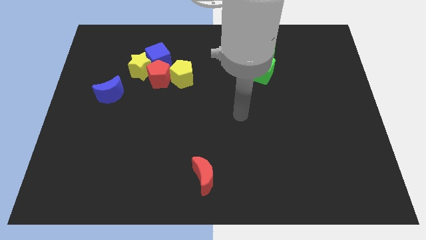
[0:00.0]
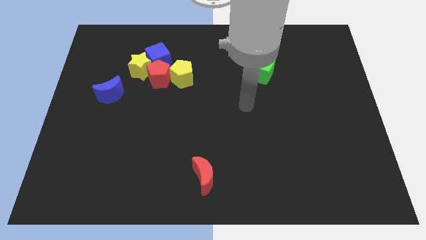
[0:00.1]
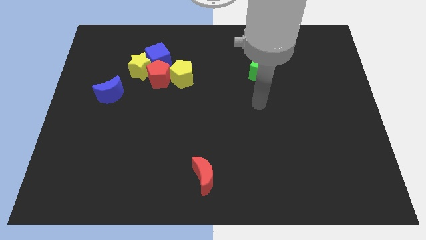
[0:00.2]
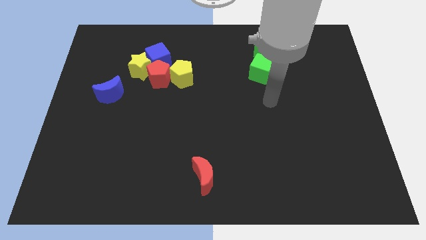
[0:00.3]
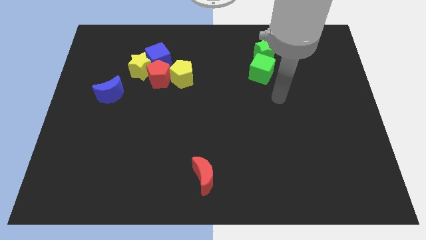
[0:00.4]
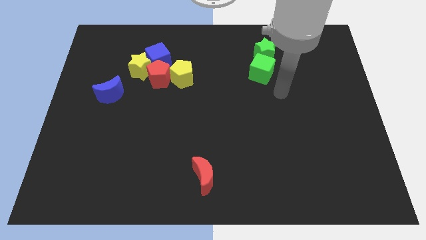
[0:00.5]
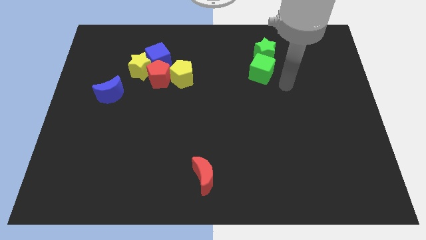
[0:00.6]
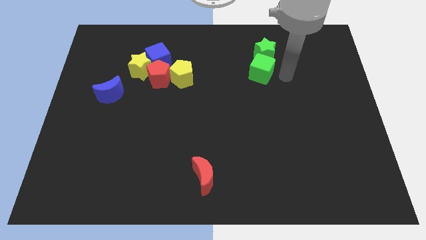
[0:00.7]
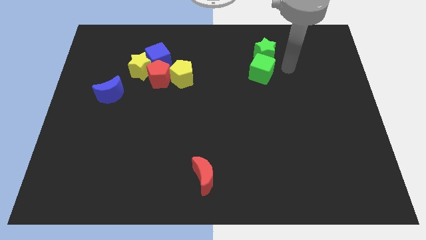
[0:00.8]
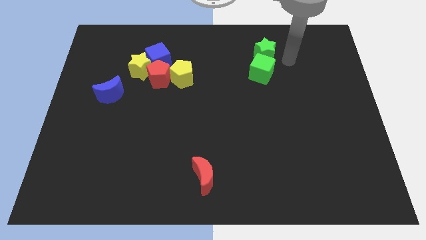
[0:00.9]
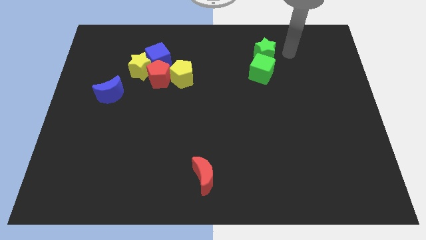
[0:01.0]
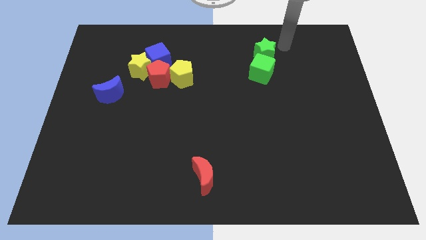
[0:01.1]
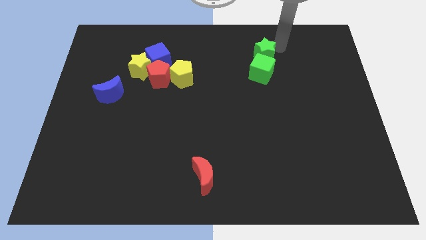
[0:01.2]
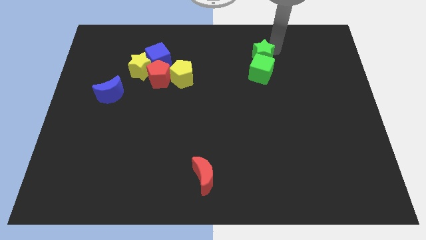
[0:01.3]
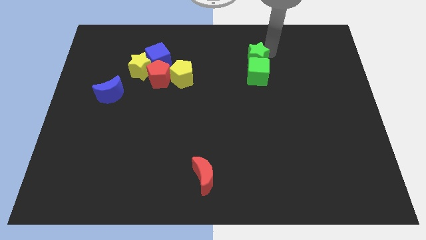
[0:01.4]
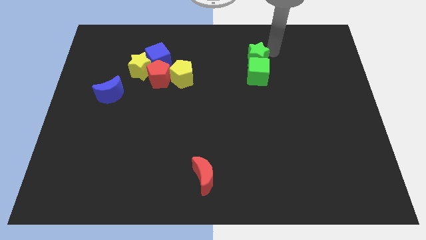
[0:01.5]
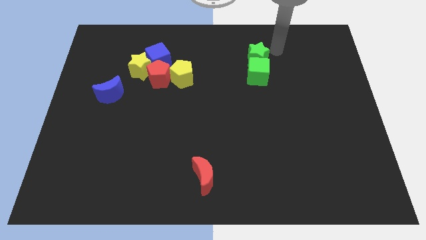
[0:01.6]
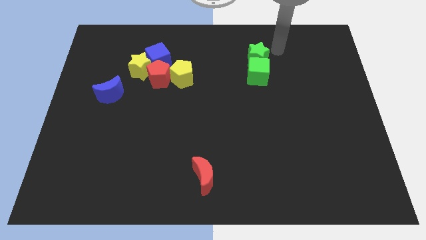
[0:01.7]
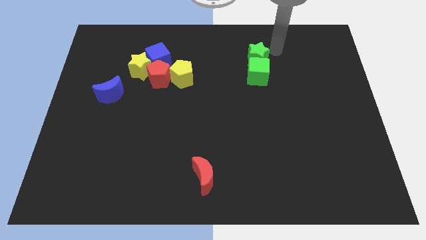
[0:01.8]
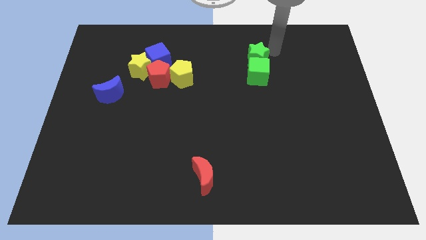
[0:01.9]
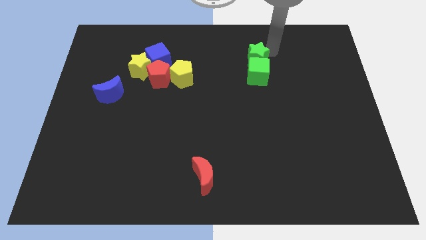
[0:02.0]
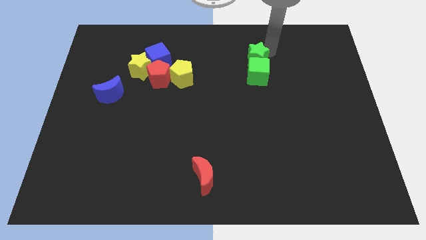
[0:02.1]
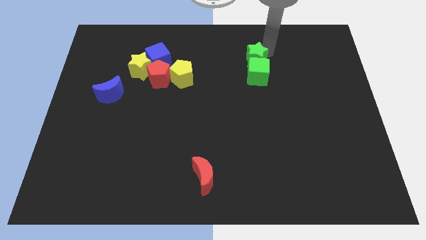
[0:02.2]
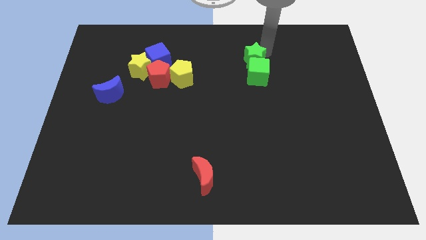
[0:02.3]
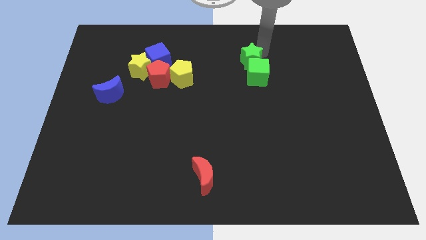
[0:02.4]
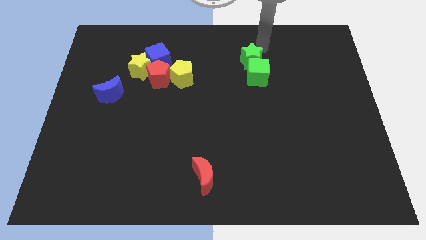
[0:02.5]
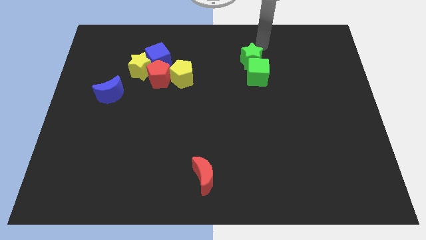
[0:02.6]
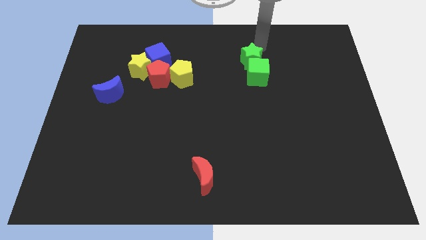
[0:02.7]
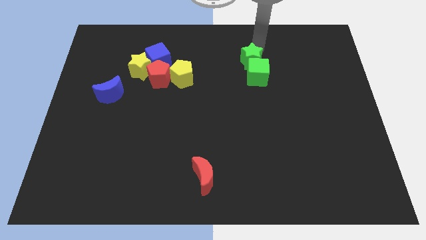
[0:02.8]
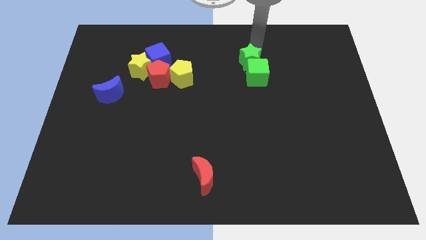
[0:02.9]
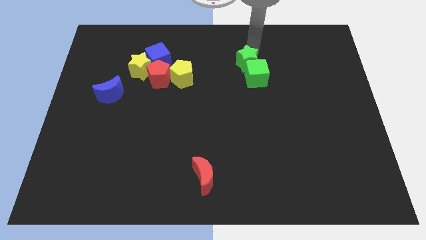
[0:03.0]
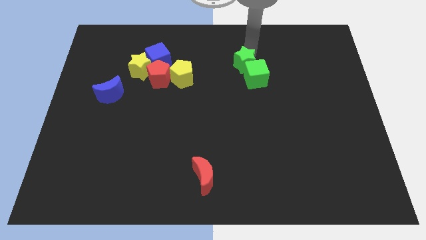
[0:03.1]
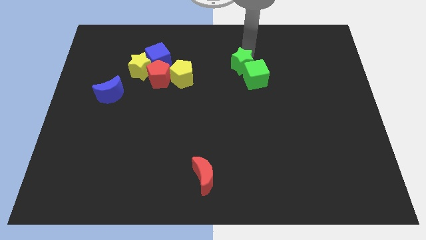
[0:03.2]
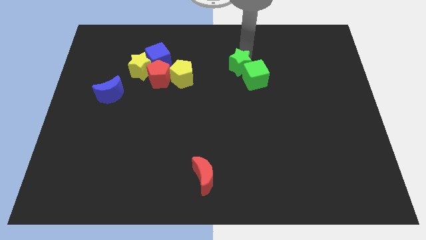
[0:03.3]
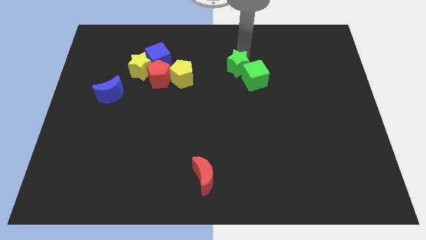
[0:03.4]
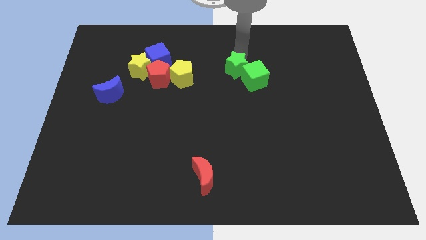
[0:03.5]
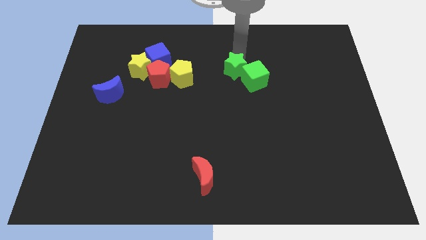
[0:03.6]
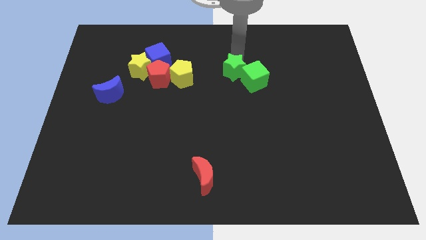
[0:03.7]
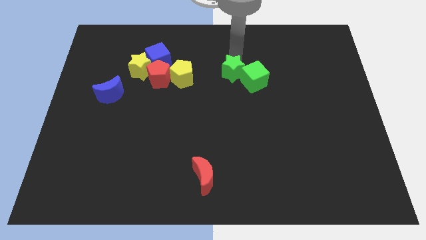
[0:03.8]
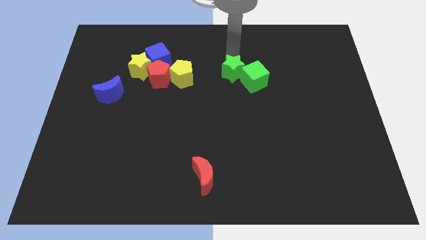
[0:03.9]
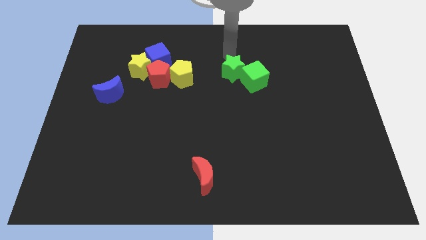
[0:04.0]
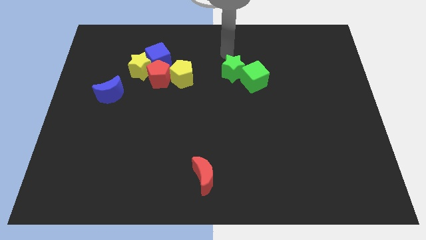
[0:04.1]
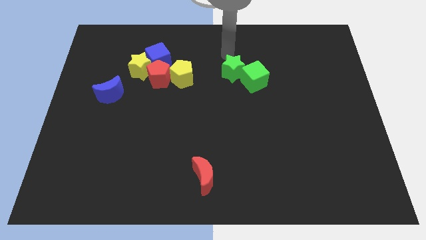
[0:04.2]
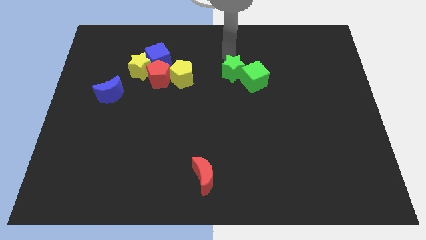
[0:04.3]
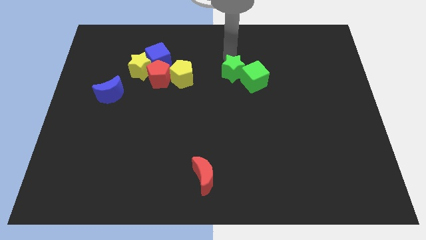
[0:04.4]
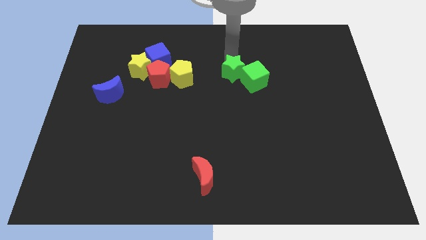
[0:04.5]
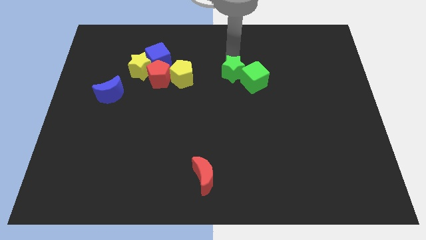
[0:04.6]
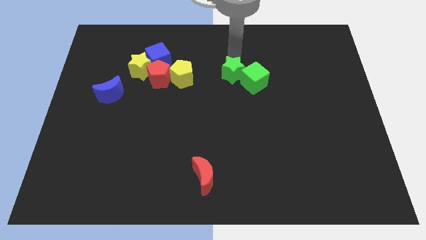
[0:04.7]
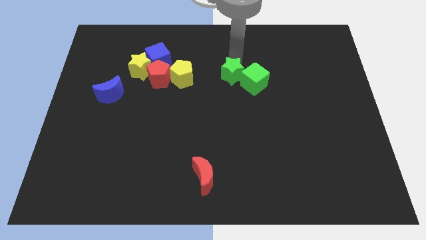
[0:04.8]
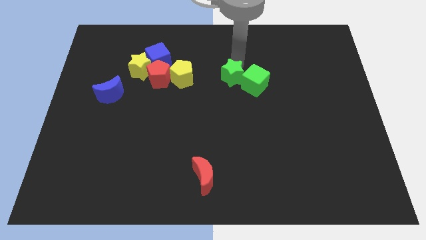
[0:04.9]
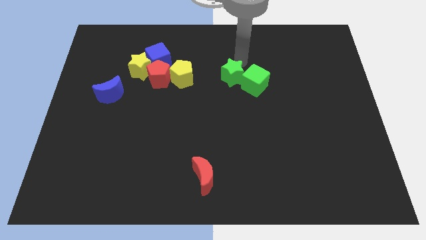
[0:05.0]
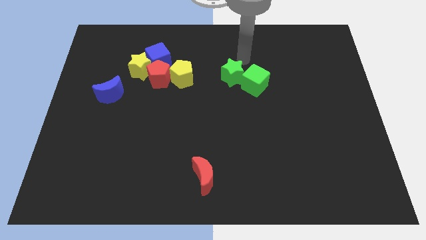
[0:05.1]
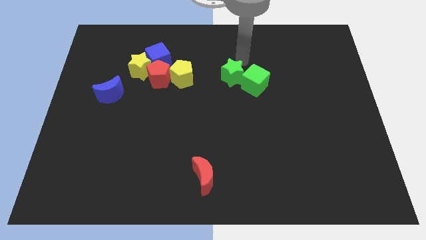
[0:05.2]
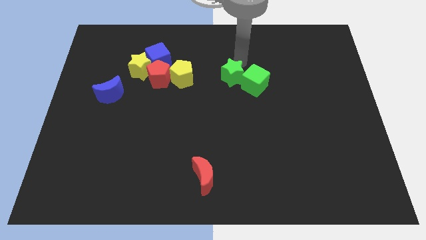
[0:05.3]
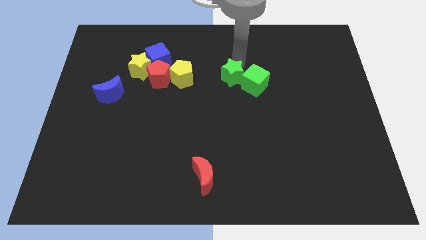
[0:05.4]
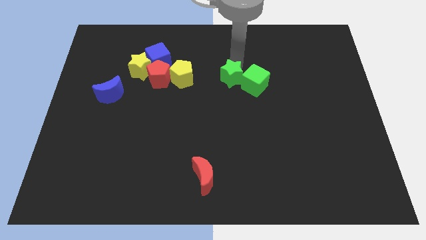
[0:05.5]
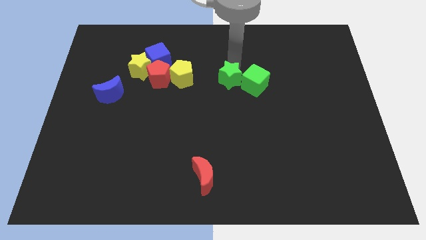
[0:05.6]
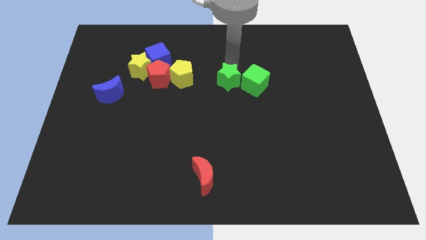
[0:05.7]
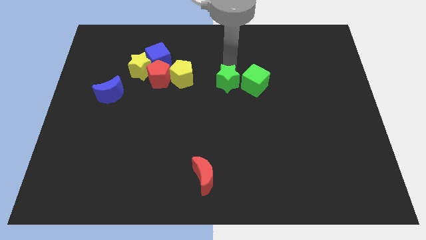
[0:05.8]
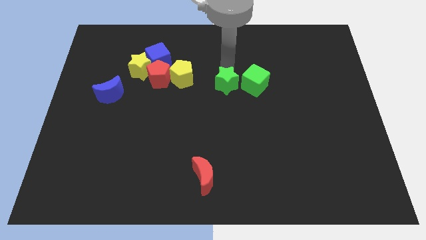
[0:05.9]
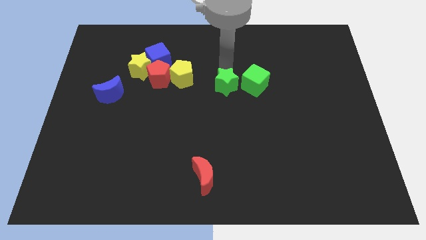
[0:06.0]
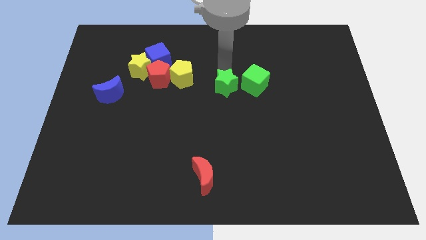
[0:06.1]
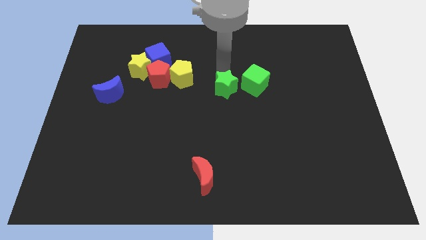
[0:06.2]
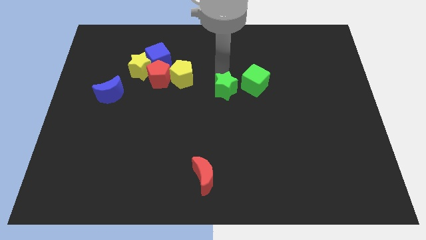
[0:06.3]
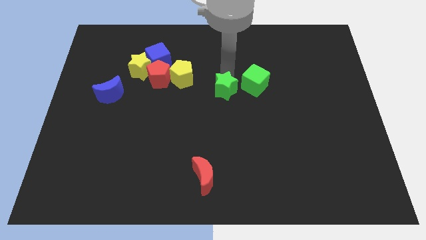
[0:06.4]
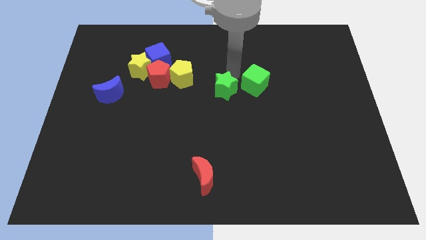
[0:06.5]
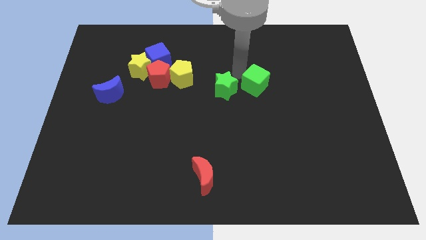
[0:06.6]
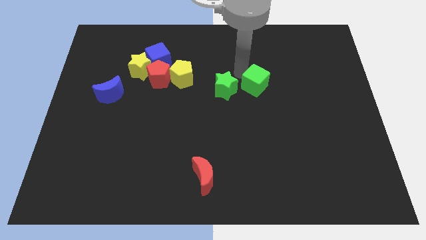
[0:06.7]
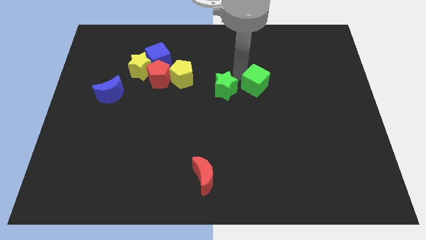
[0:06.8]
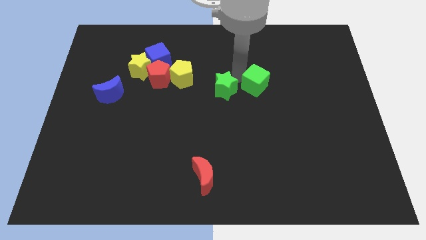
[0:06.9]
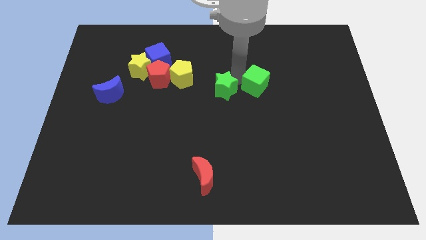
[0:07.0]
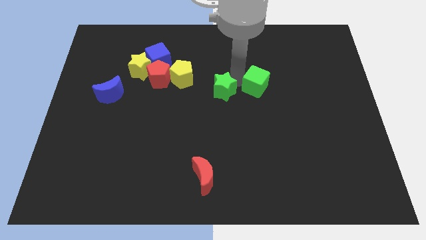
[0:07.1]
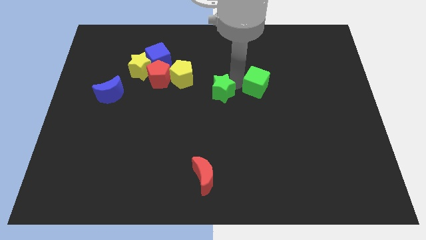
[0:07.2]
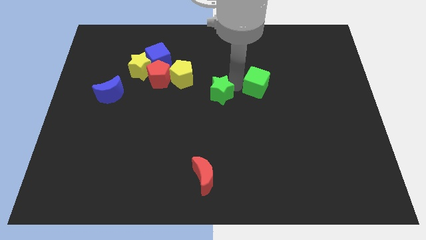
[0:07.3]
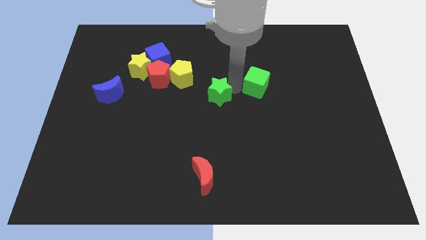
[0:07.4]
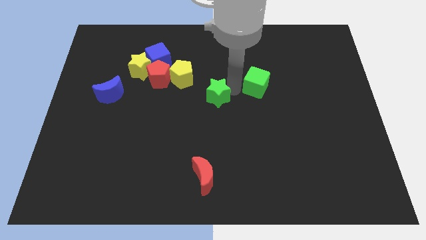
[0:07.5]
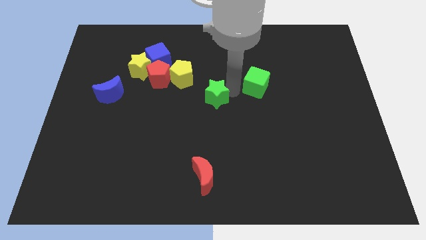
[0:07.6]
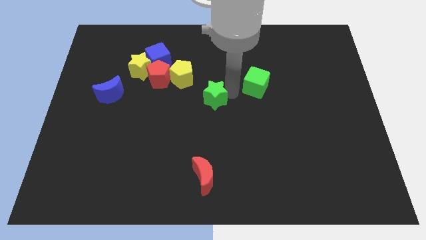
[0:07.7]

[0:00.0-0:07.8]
push the green star diagonally down and left

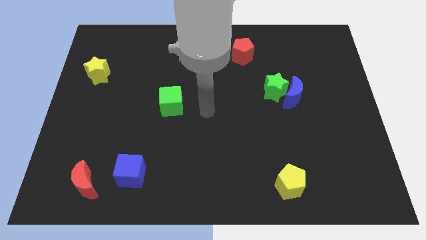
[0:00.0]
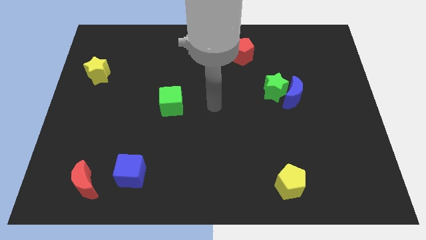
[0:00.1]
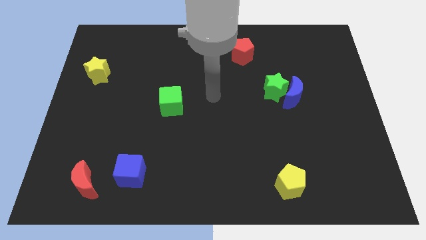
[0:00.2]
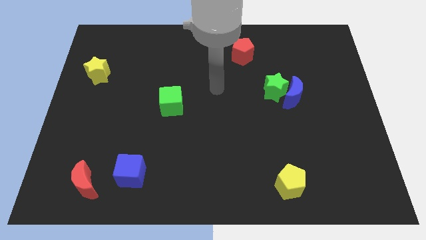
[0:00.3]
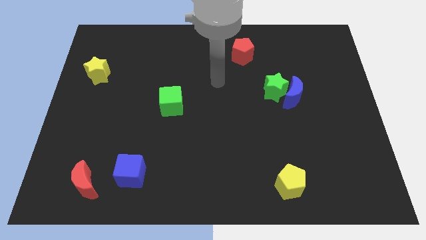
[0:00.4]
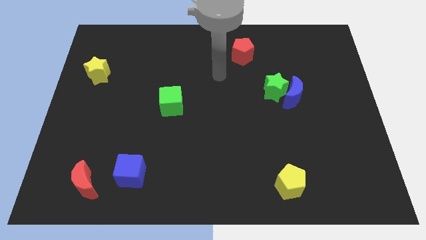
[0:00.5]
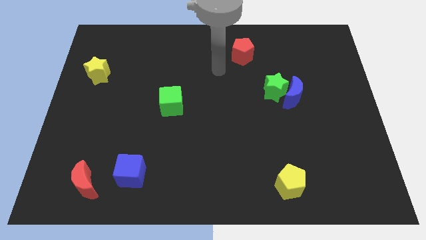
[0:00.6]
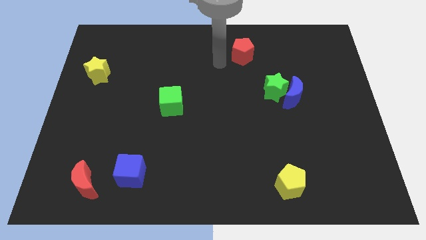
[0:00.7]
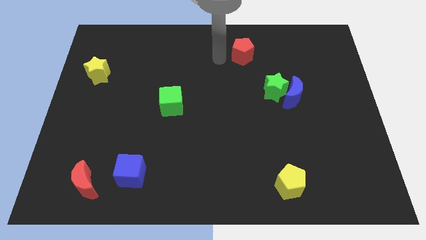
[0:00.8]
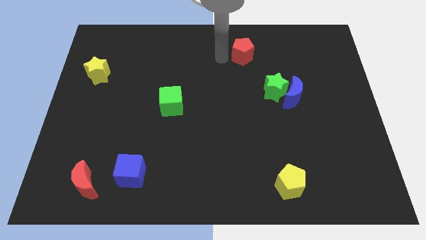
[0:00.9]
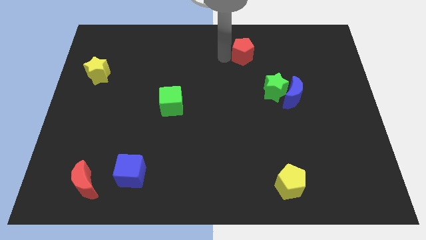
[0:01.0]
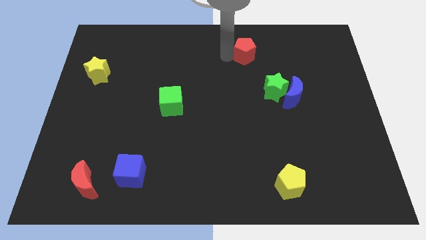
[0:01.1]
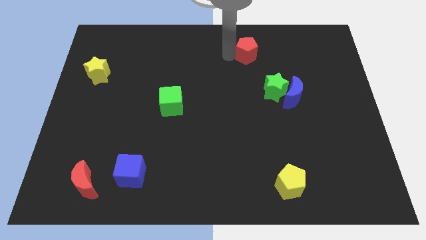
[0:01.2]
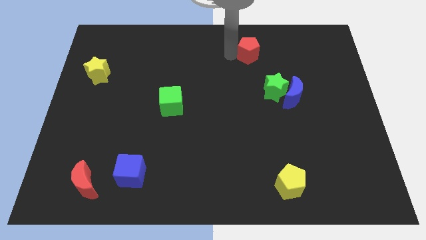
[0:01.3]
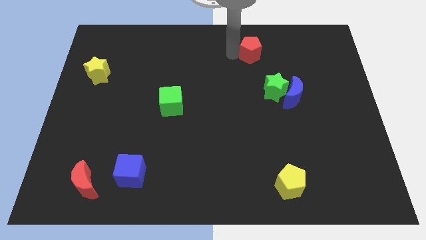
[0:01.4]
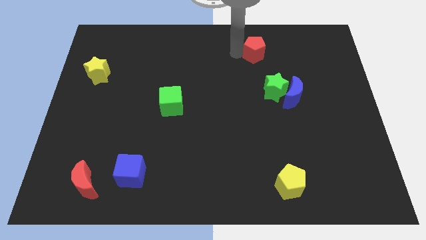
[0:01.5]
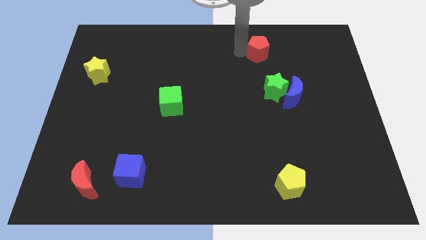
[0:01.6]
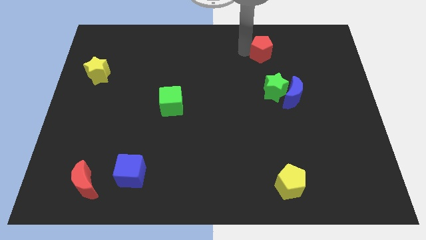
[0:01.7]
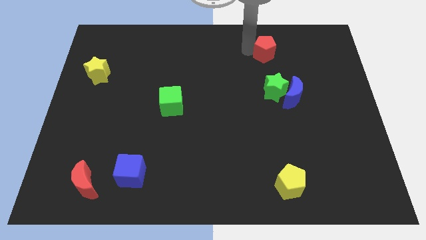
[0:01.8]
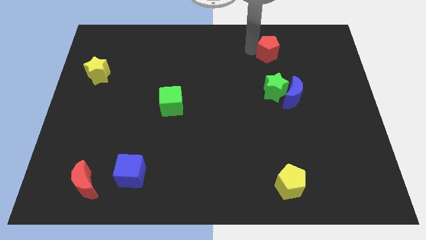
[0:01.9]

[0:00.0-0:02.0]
move the red pentagon to the right a bit
